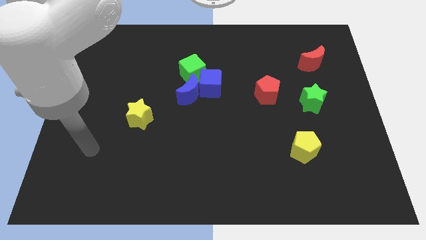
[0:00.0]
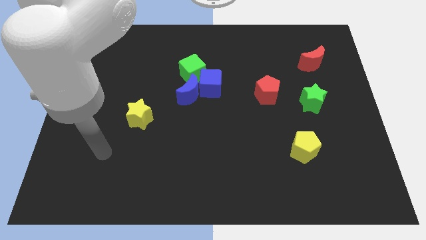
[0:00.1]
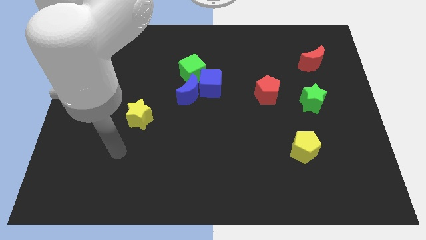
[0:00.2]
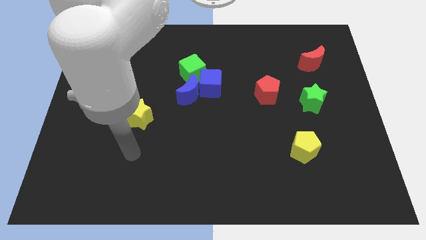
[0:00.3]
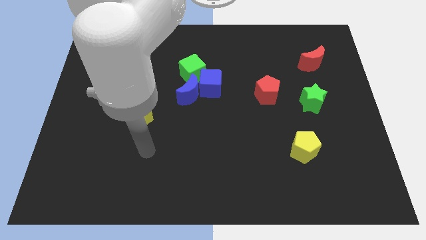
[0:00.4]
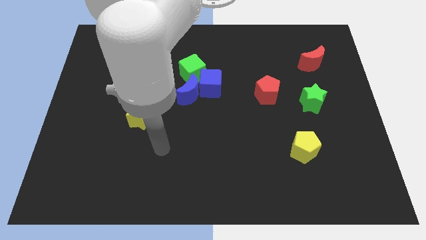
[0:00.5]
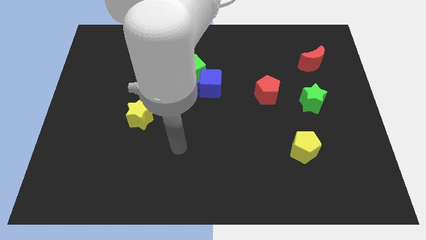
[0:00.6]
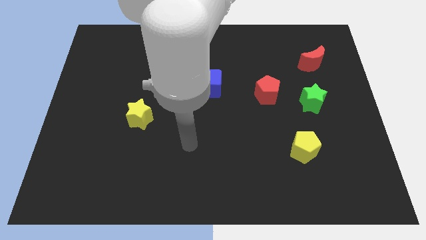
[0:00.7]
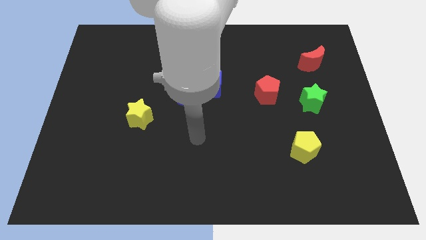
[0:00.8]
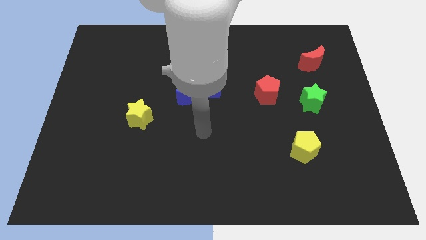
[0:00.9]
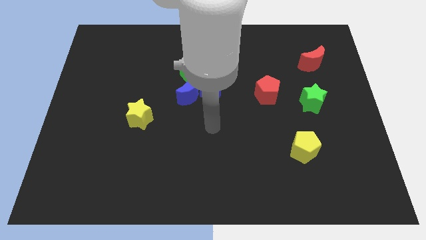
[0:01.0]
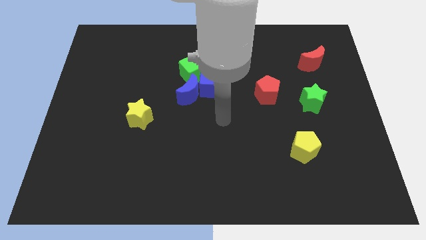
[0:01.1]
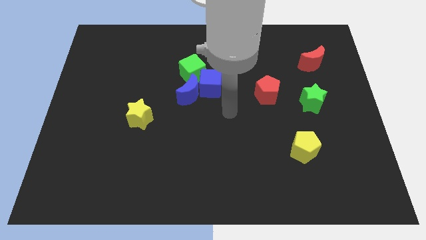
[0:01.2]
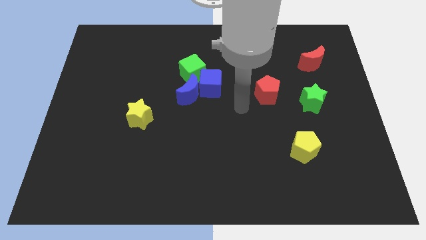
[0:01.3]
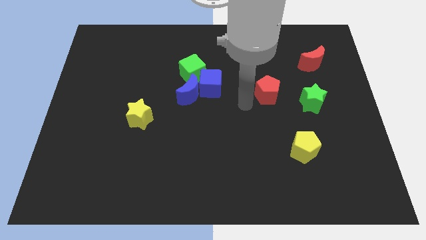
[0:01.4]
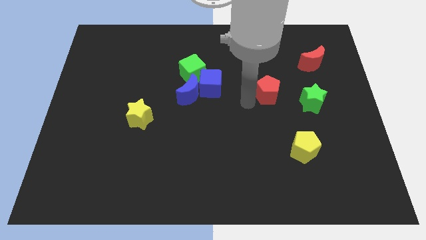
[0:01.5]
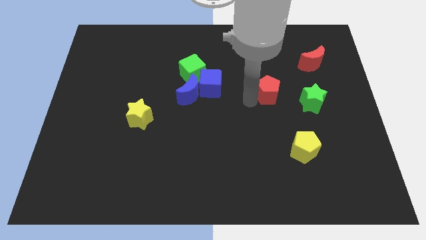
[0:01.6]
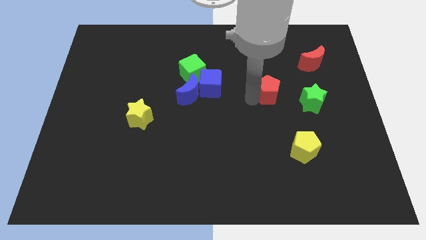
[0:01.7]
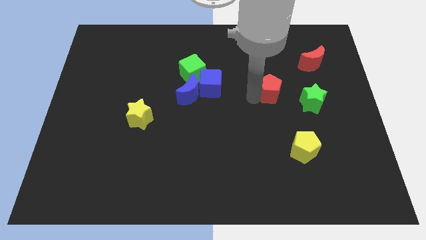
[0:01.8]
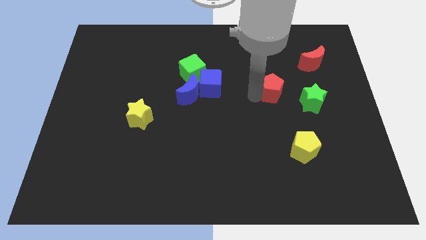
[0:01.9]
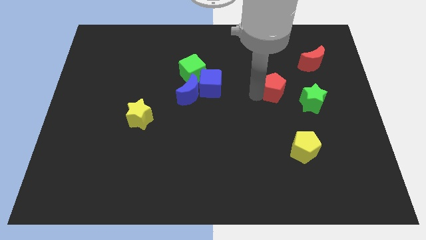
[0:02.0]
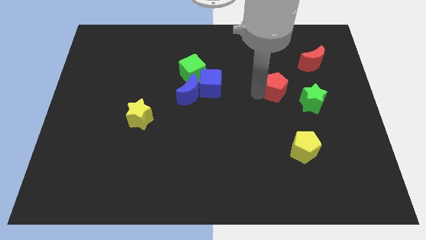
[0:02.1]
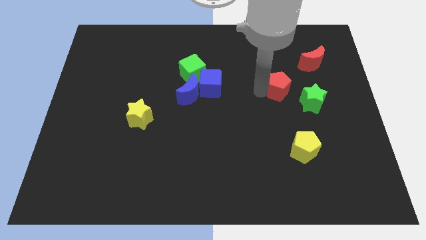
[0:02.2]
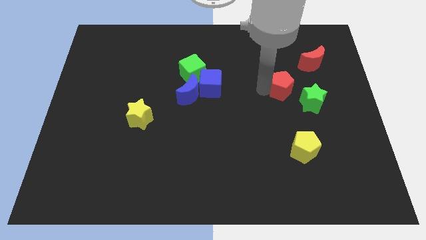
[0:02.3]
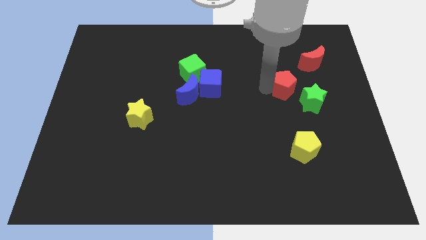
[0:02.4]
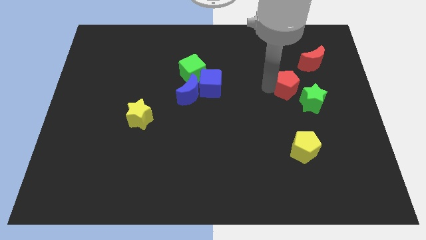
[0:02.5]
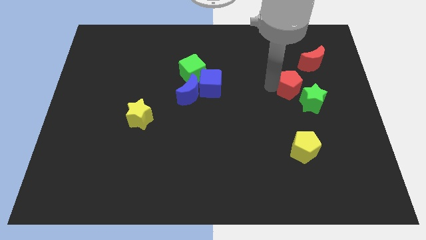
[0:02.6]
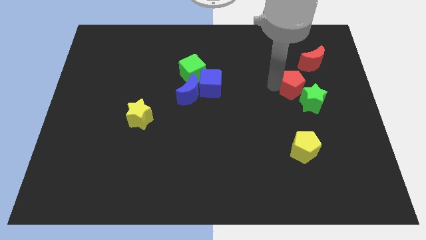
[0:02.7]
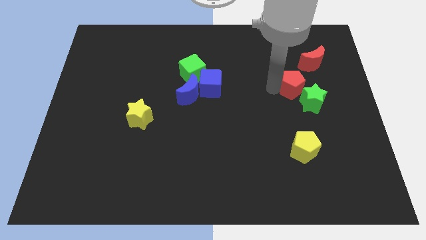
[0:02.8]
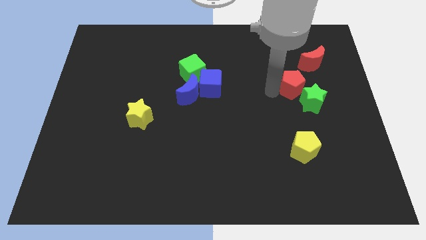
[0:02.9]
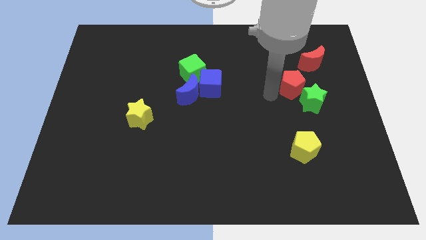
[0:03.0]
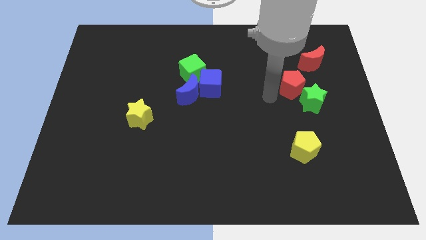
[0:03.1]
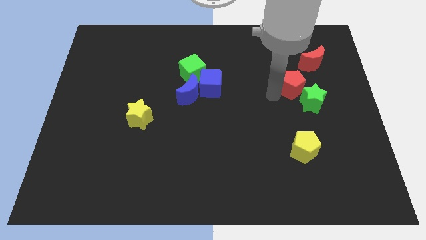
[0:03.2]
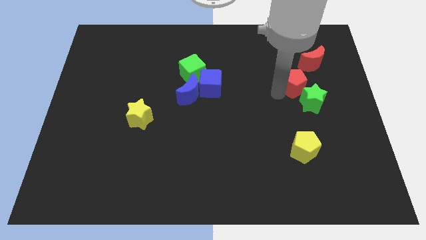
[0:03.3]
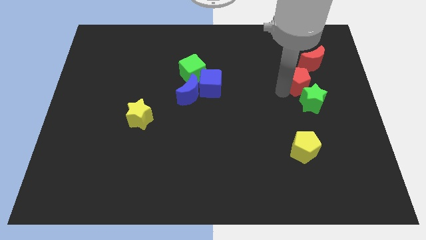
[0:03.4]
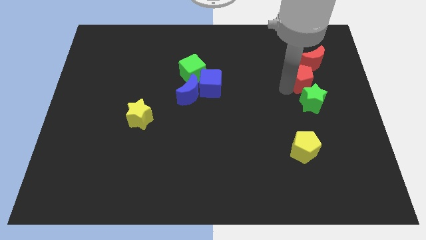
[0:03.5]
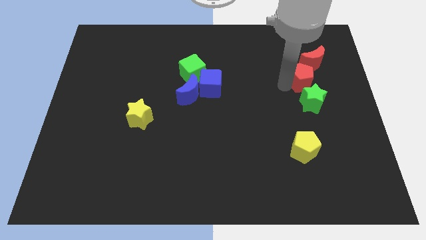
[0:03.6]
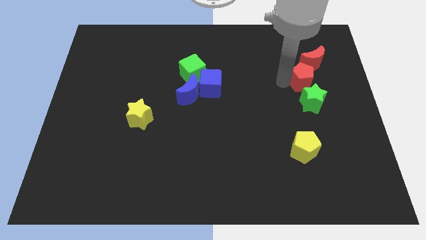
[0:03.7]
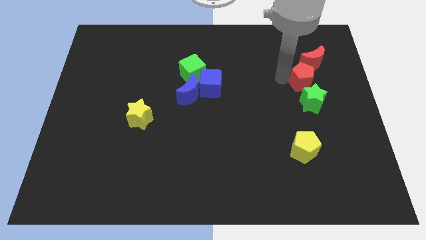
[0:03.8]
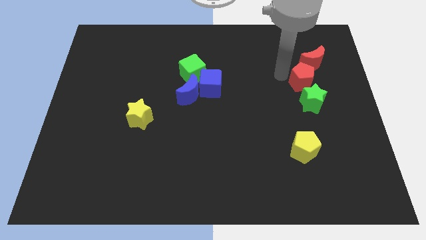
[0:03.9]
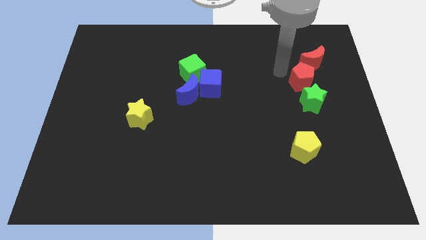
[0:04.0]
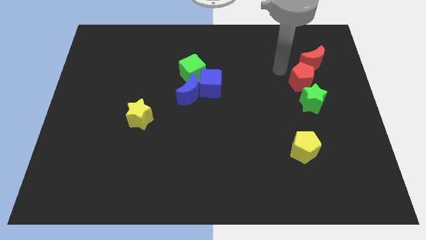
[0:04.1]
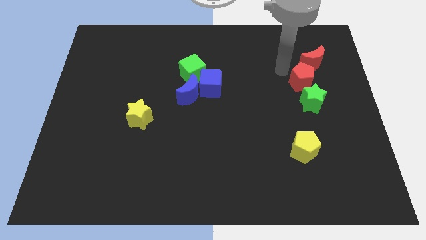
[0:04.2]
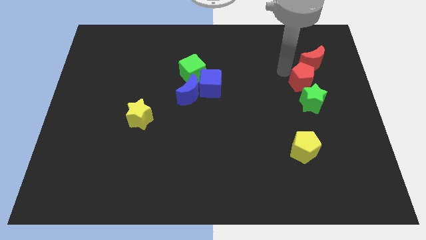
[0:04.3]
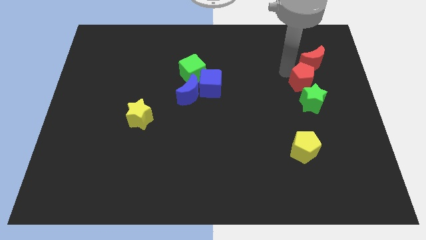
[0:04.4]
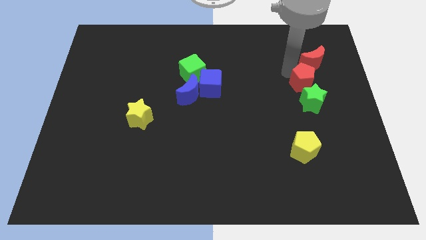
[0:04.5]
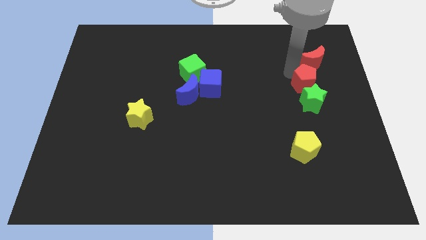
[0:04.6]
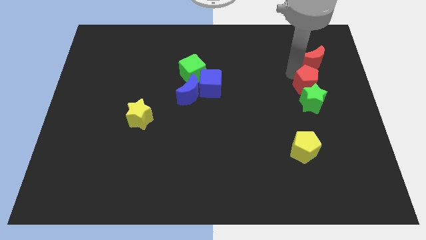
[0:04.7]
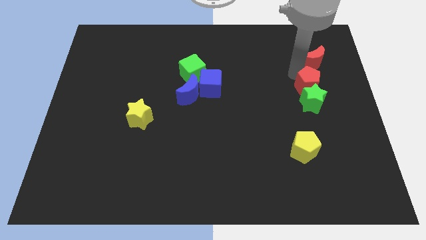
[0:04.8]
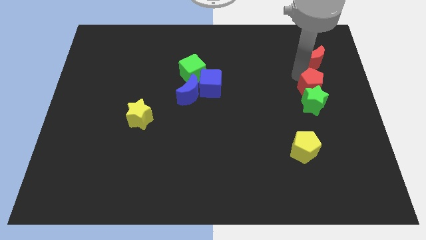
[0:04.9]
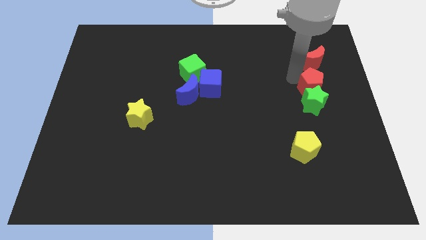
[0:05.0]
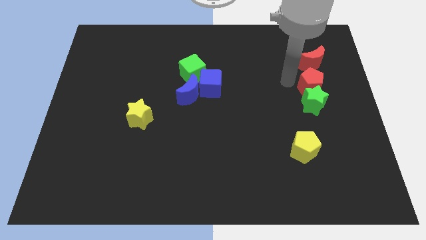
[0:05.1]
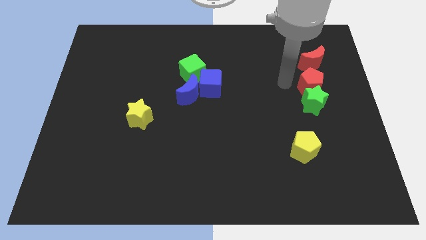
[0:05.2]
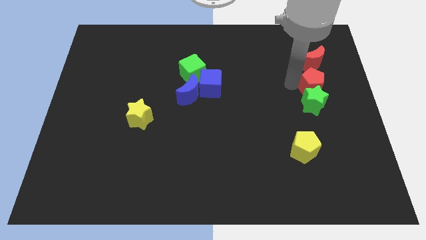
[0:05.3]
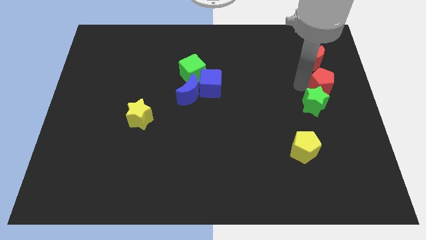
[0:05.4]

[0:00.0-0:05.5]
move the red pentagon to the right side of the board
